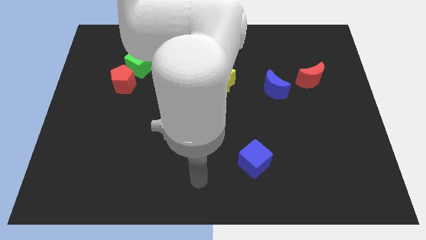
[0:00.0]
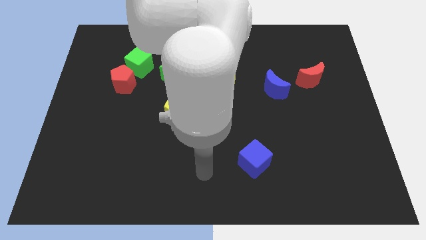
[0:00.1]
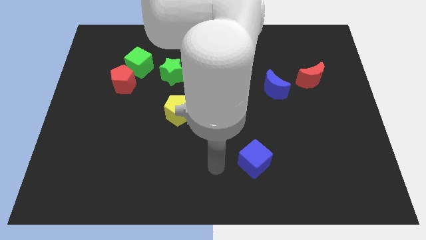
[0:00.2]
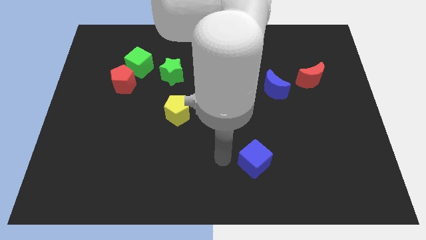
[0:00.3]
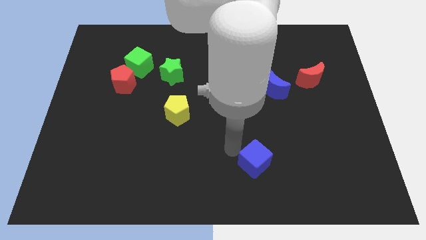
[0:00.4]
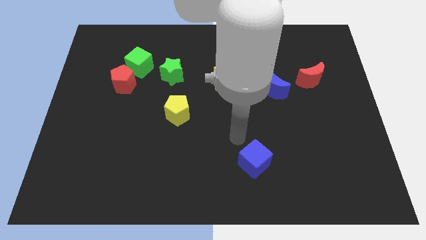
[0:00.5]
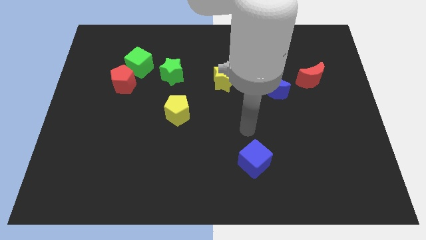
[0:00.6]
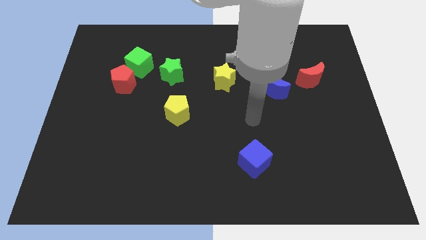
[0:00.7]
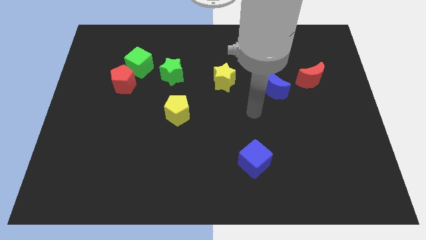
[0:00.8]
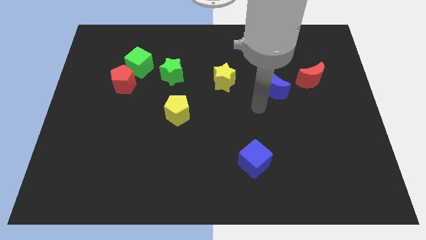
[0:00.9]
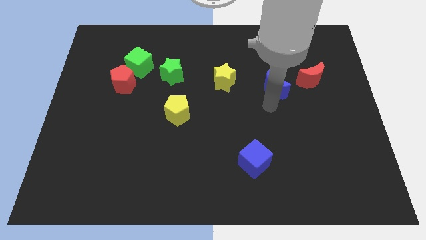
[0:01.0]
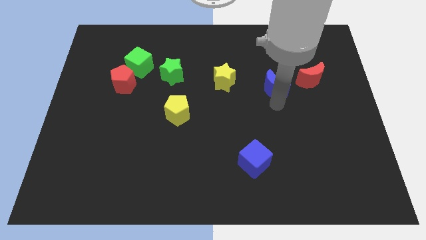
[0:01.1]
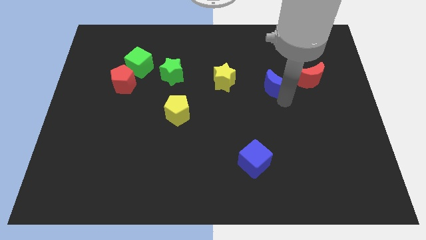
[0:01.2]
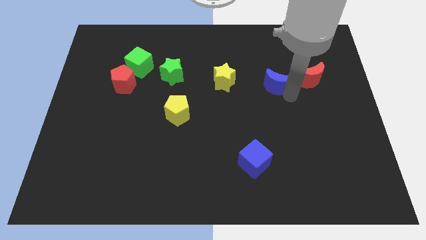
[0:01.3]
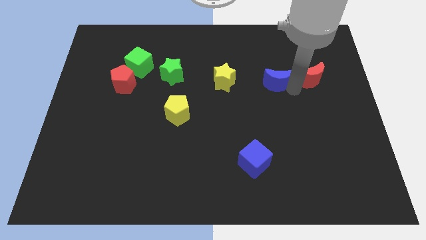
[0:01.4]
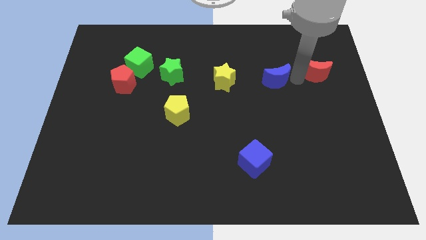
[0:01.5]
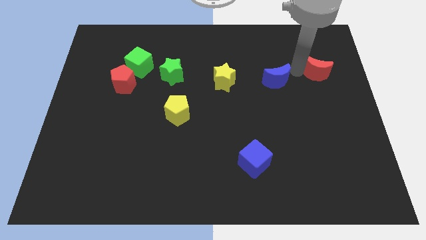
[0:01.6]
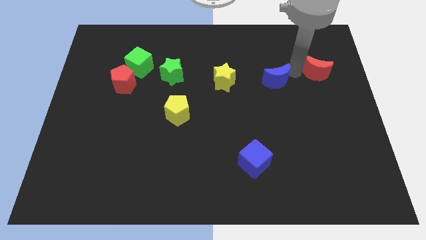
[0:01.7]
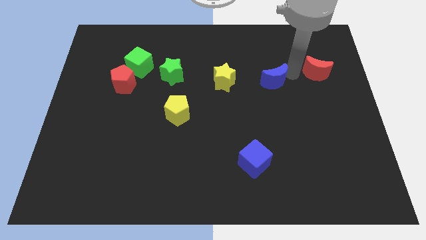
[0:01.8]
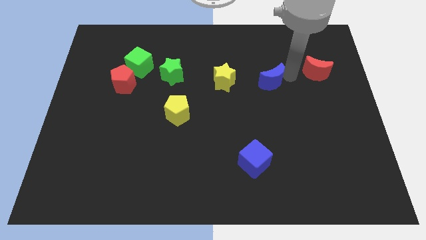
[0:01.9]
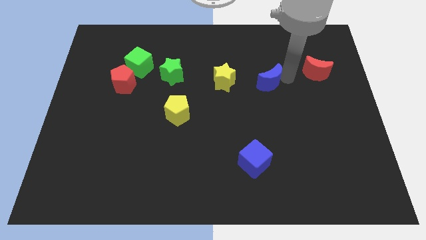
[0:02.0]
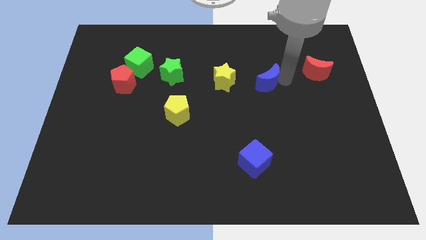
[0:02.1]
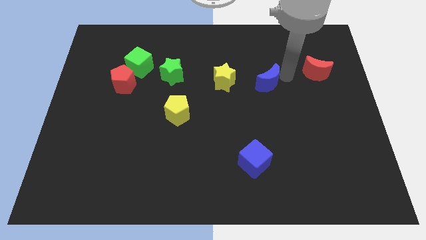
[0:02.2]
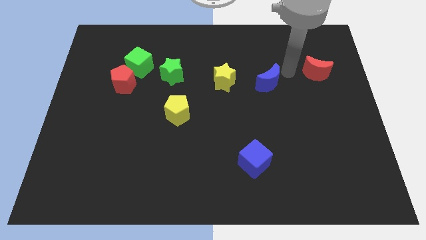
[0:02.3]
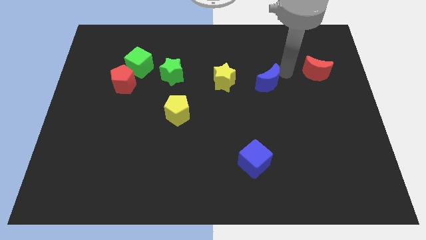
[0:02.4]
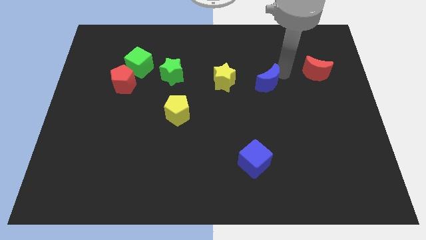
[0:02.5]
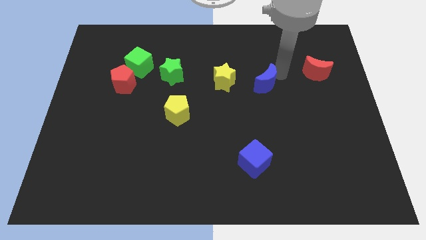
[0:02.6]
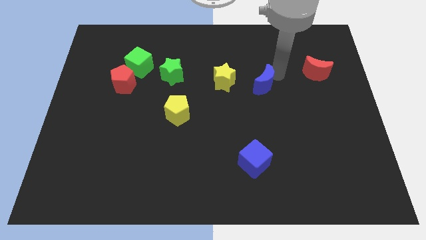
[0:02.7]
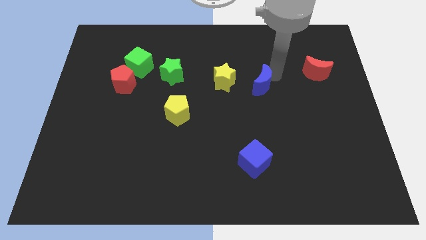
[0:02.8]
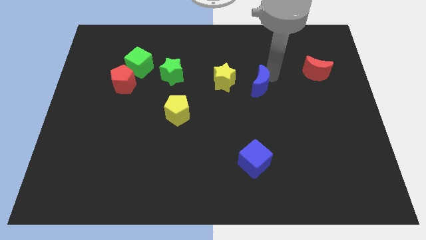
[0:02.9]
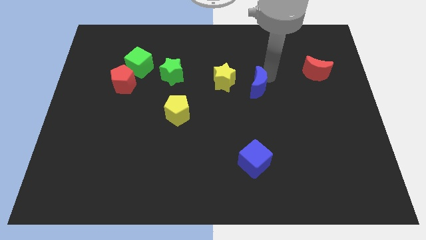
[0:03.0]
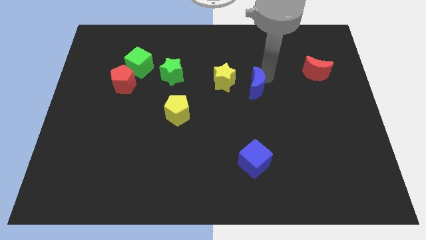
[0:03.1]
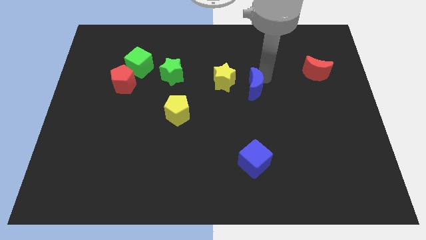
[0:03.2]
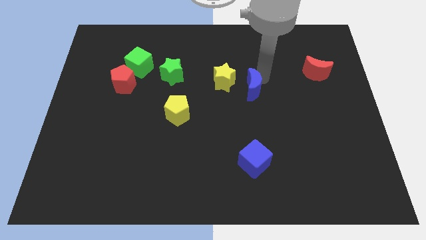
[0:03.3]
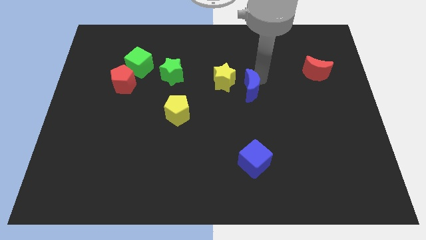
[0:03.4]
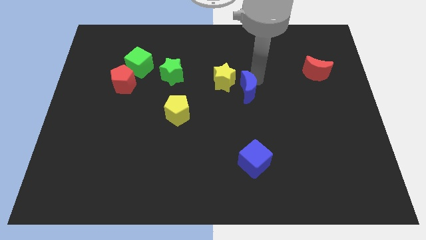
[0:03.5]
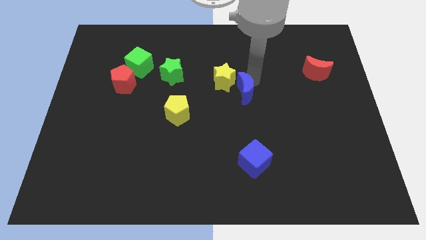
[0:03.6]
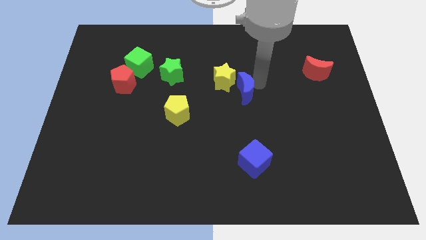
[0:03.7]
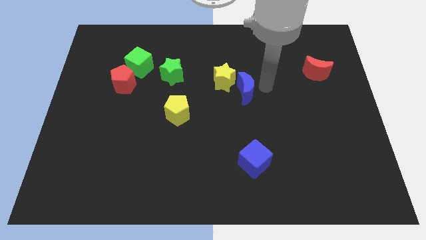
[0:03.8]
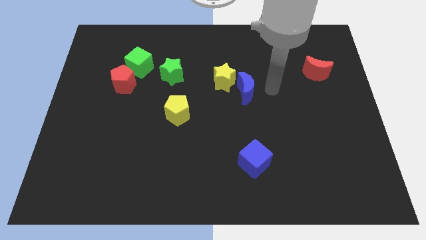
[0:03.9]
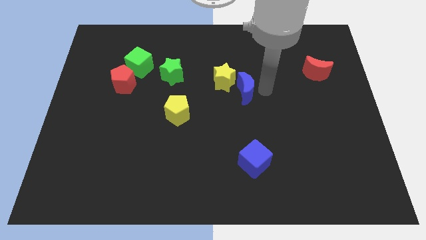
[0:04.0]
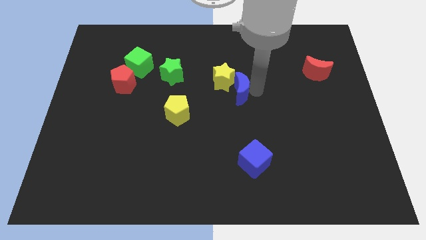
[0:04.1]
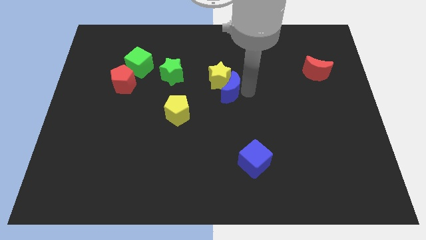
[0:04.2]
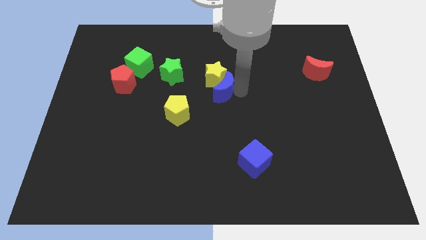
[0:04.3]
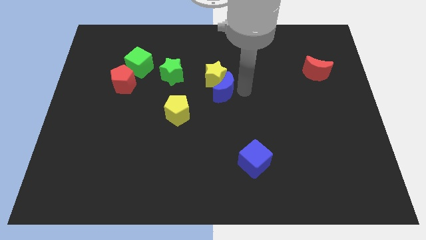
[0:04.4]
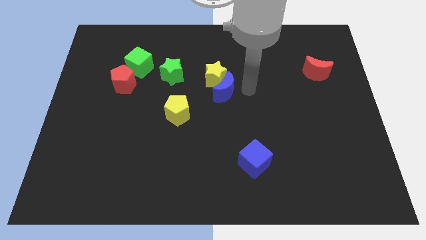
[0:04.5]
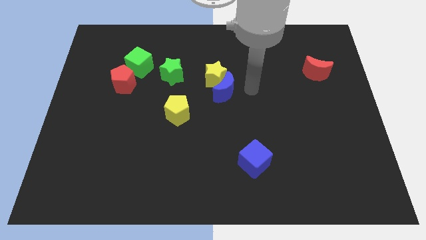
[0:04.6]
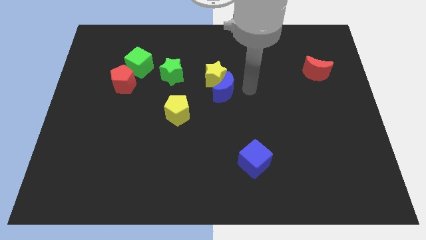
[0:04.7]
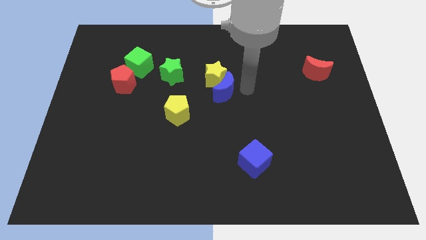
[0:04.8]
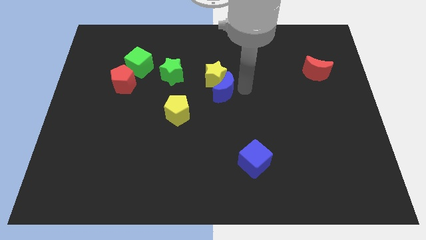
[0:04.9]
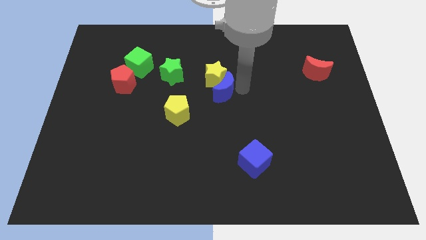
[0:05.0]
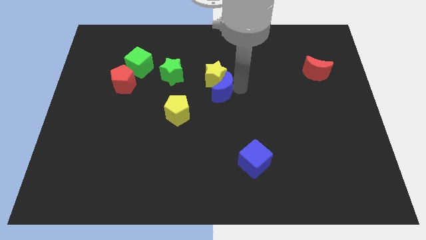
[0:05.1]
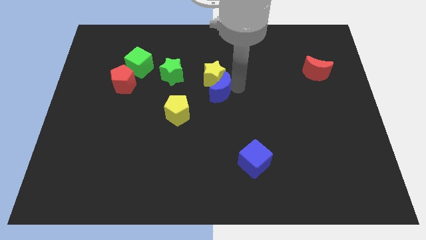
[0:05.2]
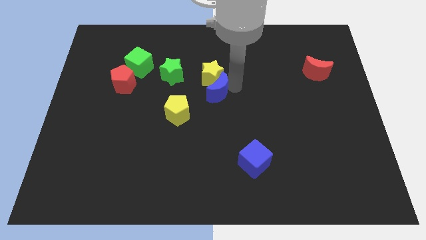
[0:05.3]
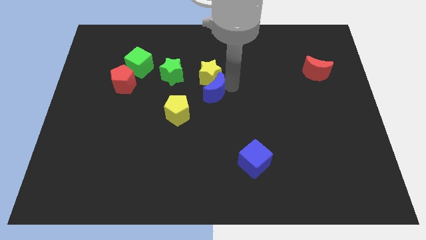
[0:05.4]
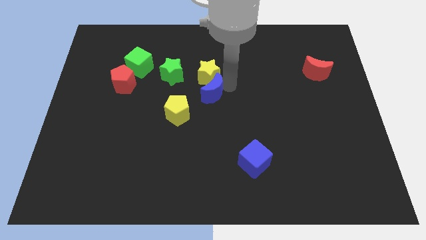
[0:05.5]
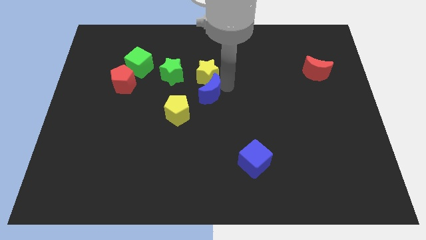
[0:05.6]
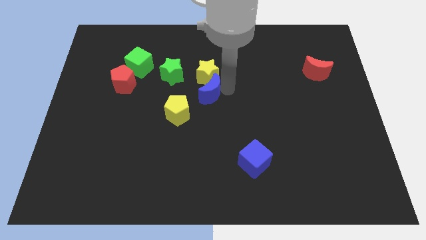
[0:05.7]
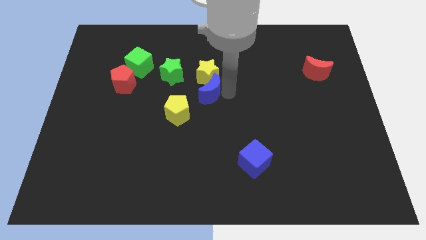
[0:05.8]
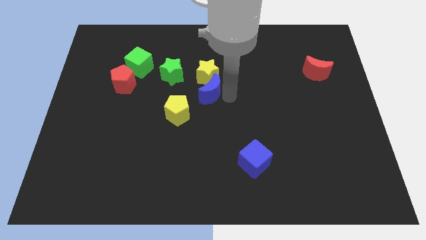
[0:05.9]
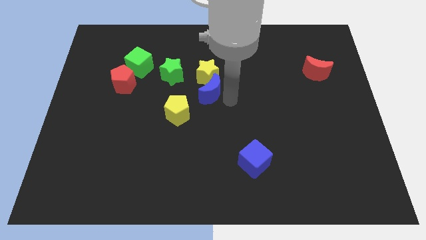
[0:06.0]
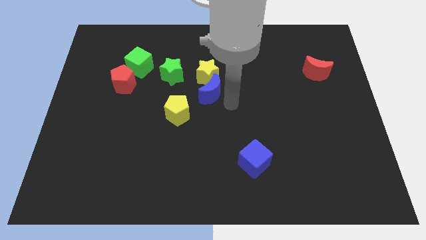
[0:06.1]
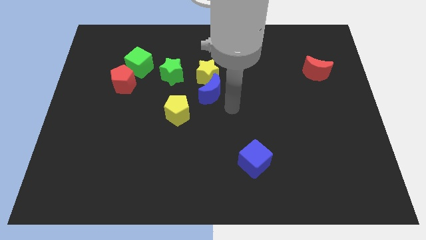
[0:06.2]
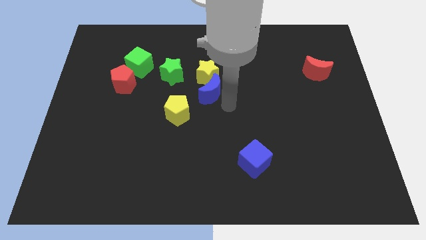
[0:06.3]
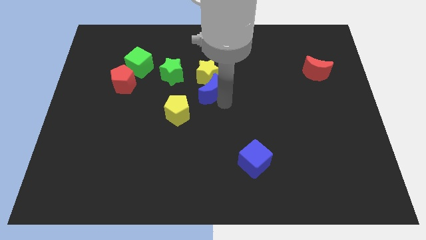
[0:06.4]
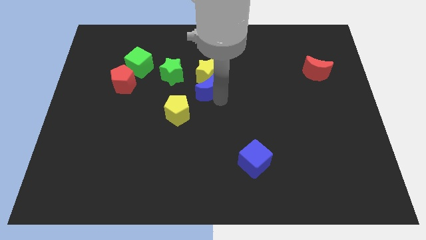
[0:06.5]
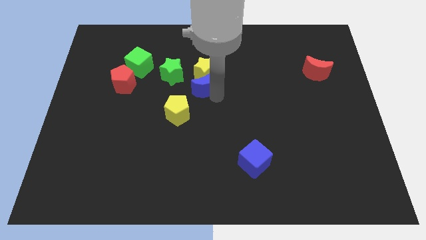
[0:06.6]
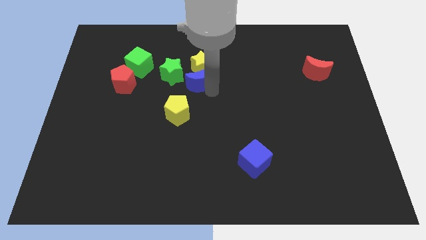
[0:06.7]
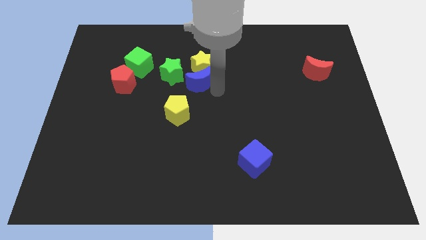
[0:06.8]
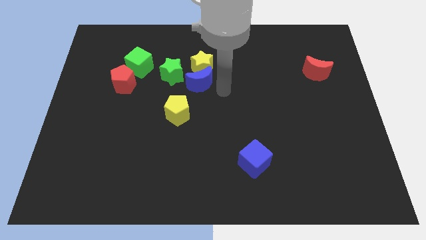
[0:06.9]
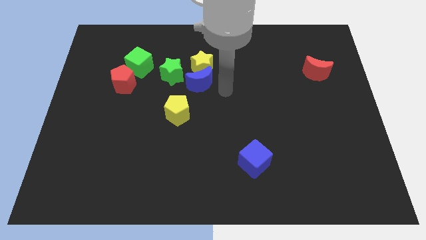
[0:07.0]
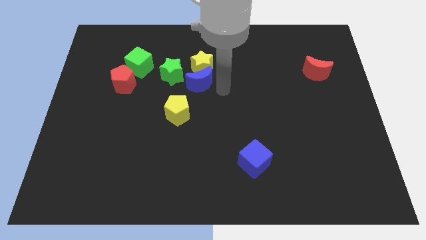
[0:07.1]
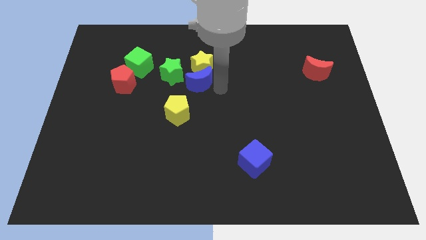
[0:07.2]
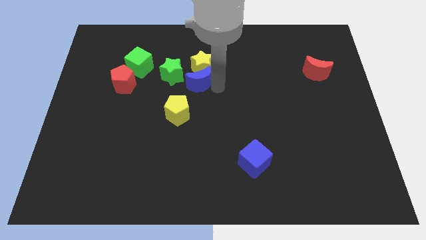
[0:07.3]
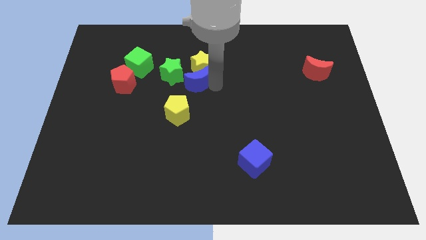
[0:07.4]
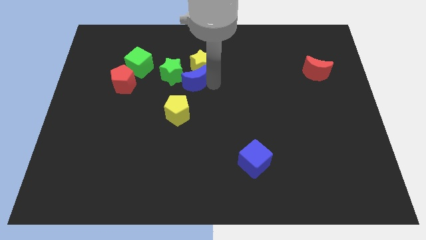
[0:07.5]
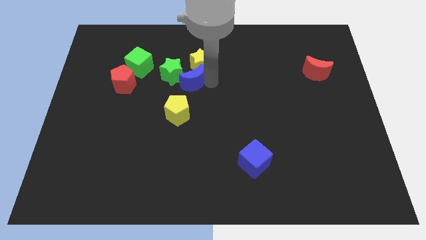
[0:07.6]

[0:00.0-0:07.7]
put the blue moon close to the green star

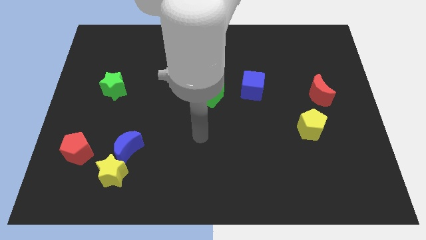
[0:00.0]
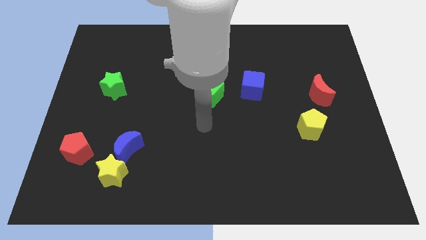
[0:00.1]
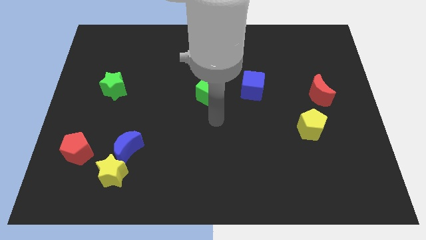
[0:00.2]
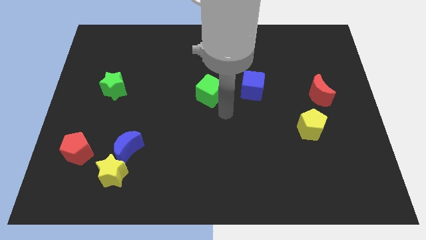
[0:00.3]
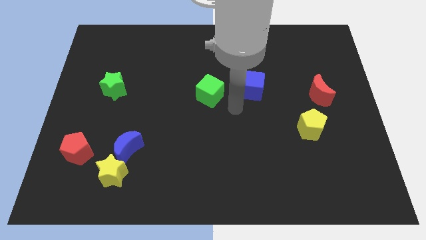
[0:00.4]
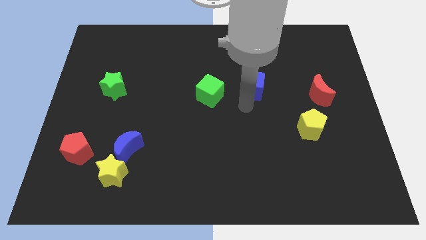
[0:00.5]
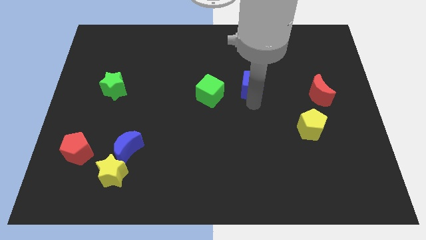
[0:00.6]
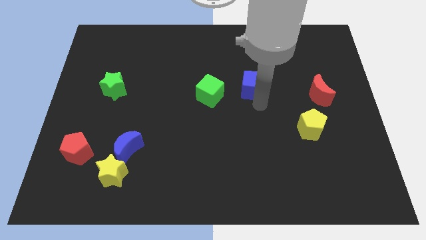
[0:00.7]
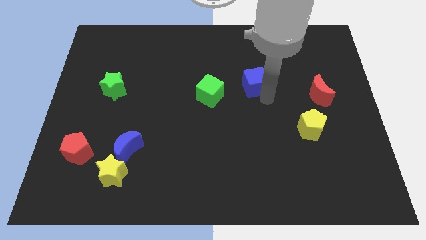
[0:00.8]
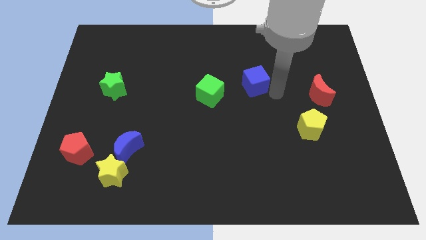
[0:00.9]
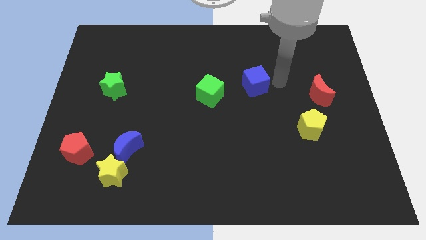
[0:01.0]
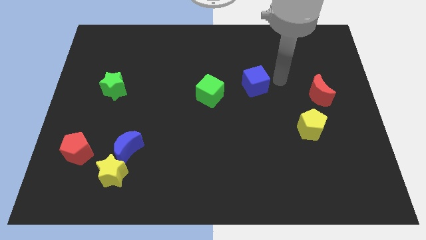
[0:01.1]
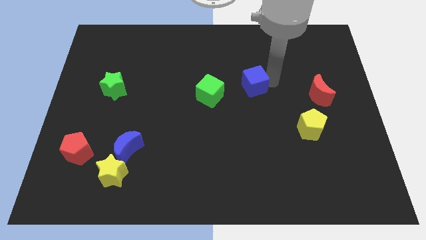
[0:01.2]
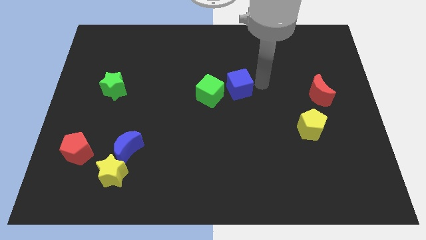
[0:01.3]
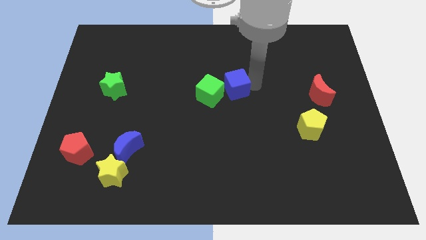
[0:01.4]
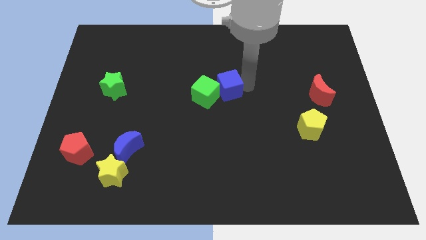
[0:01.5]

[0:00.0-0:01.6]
slide the blue cube next to the green cube
